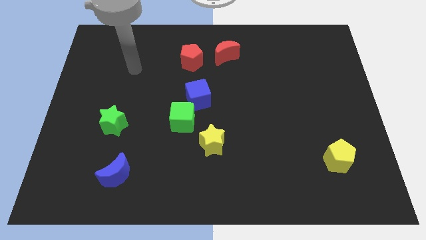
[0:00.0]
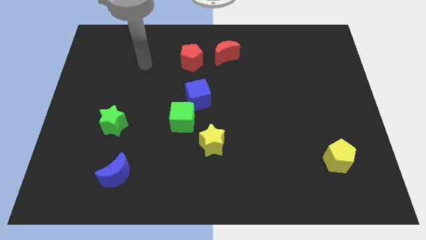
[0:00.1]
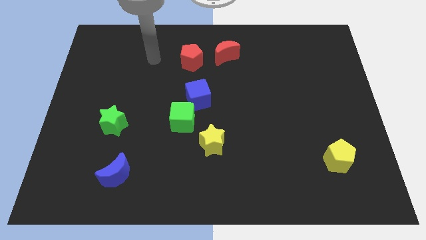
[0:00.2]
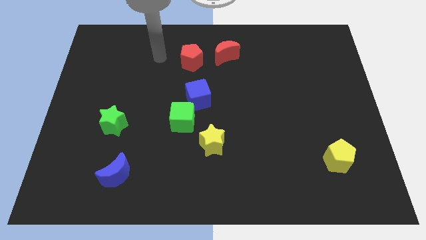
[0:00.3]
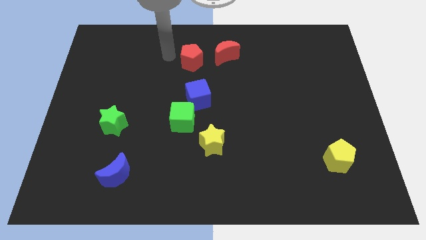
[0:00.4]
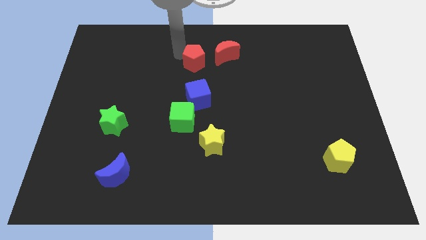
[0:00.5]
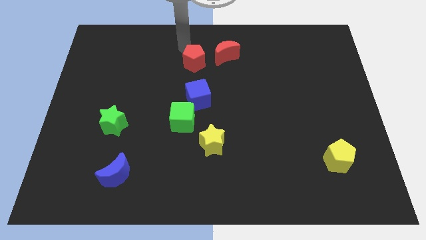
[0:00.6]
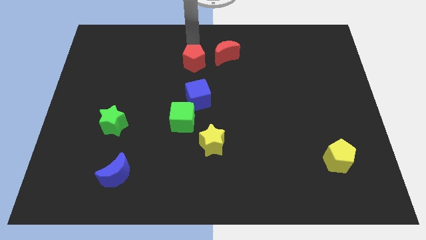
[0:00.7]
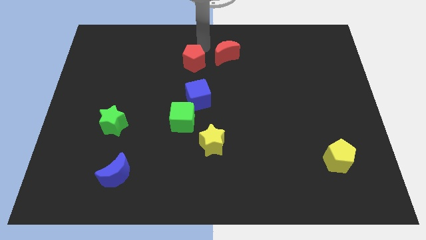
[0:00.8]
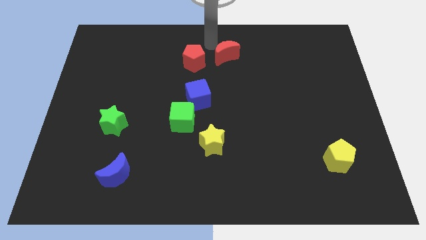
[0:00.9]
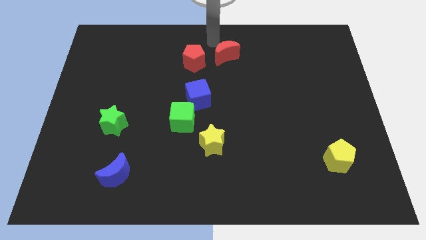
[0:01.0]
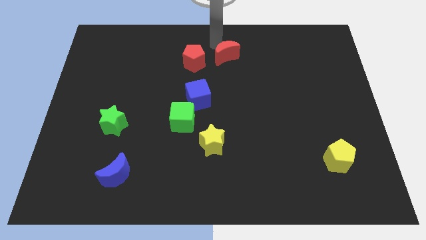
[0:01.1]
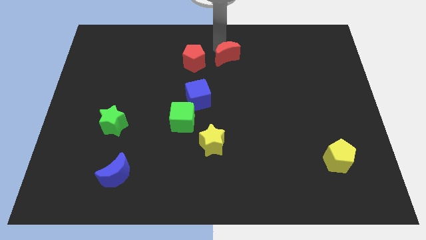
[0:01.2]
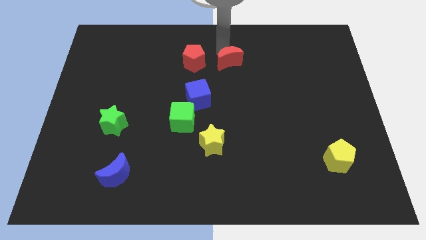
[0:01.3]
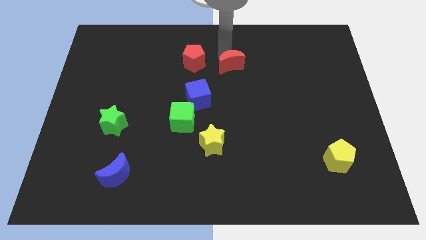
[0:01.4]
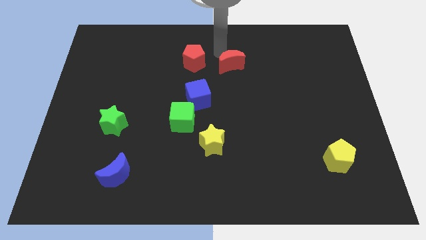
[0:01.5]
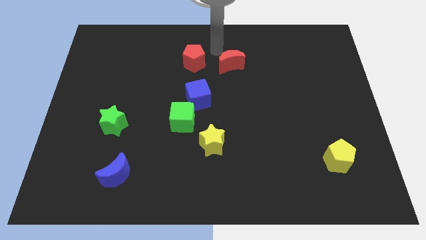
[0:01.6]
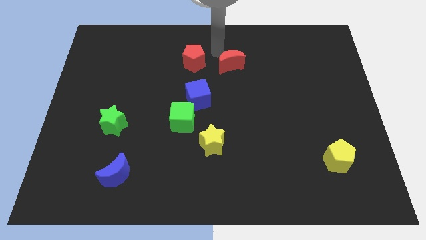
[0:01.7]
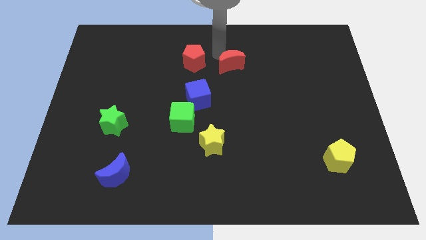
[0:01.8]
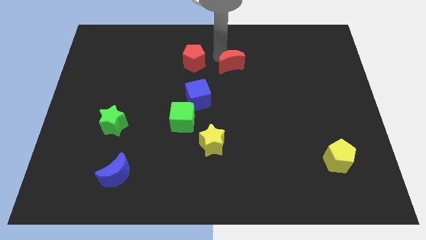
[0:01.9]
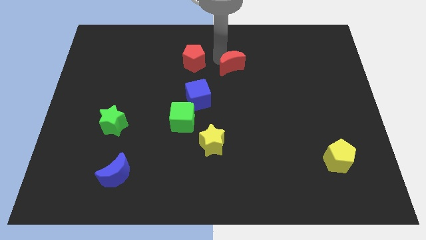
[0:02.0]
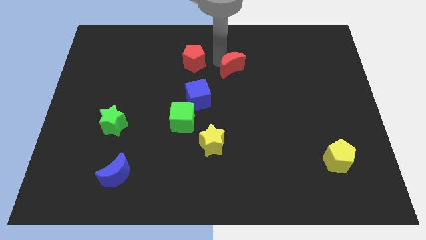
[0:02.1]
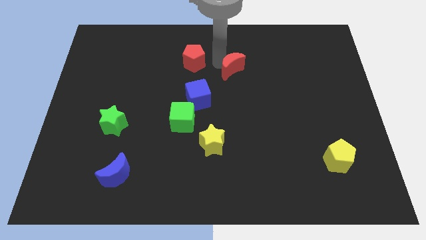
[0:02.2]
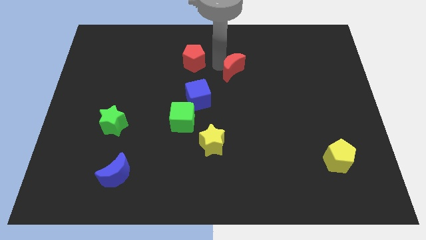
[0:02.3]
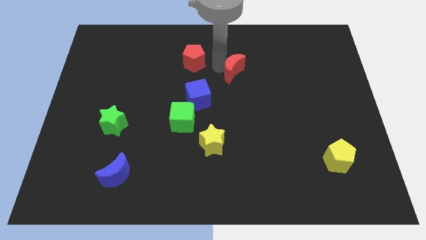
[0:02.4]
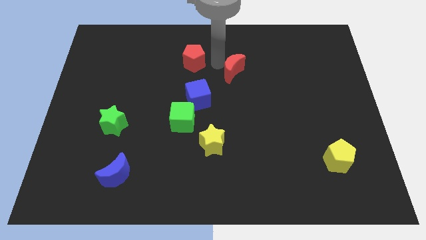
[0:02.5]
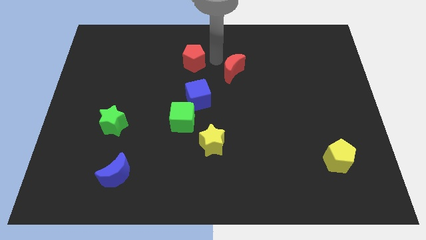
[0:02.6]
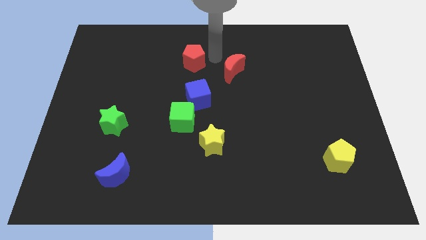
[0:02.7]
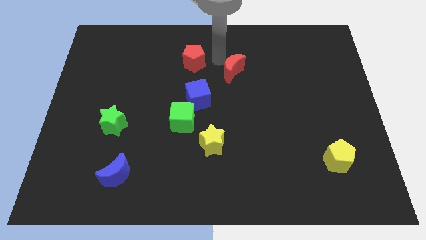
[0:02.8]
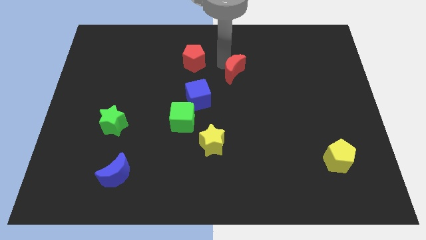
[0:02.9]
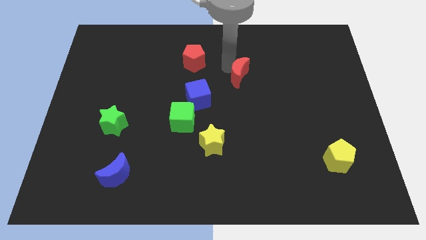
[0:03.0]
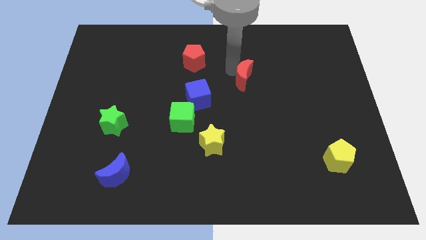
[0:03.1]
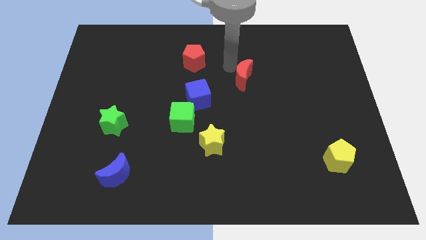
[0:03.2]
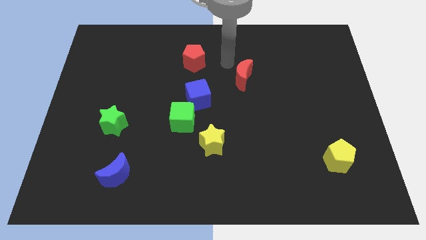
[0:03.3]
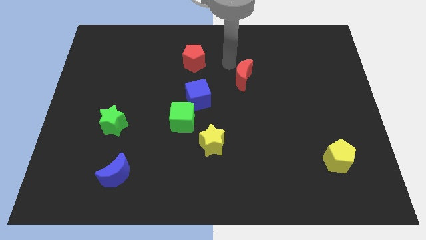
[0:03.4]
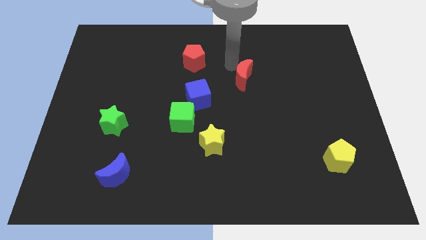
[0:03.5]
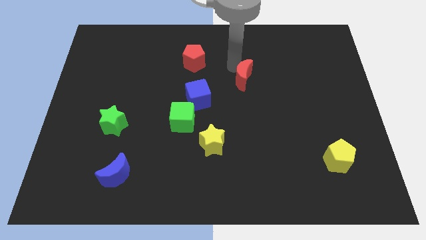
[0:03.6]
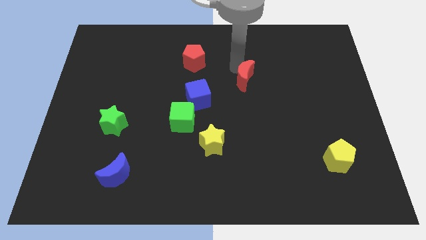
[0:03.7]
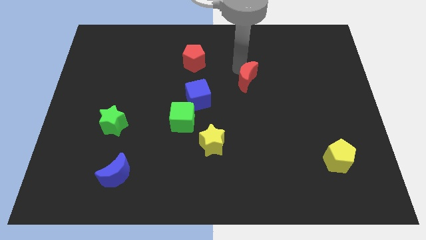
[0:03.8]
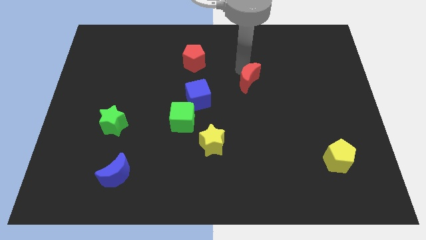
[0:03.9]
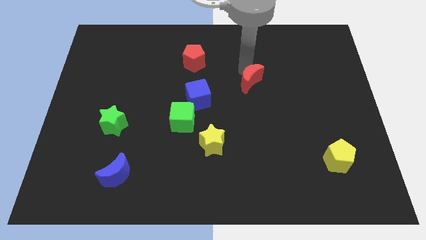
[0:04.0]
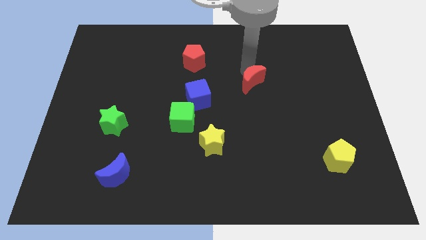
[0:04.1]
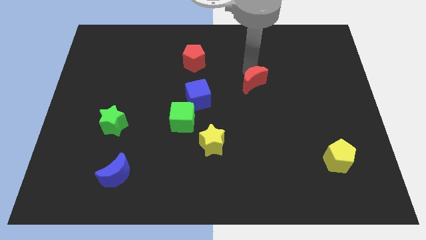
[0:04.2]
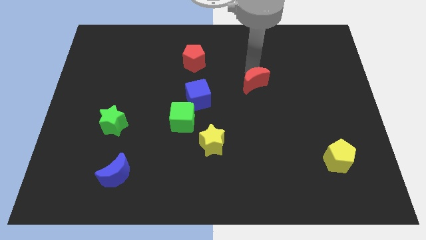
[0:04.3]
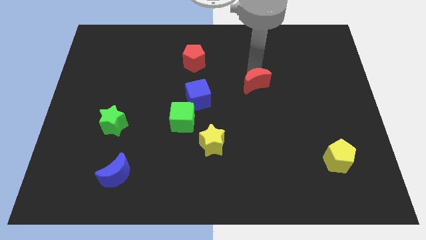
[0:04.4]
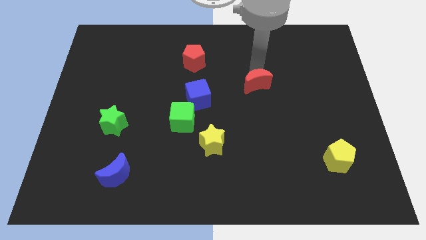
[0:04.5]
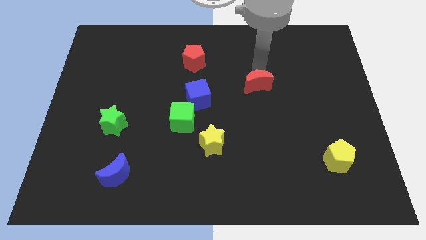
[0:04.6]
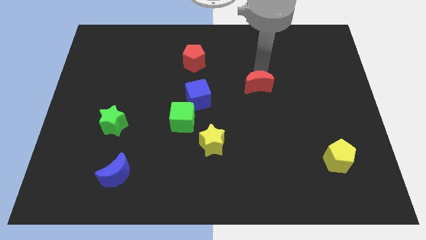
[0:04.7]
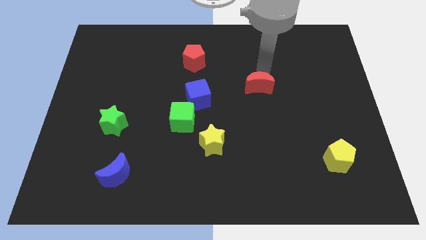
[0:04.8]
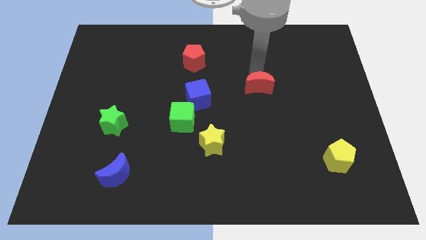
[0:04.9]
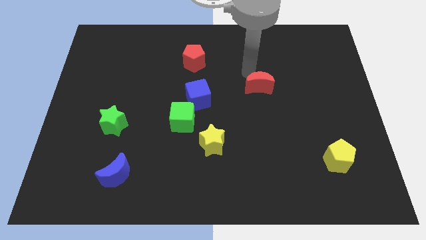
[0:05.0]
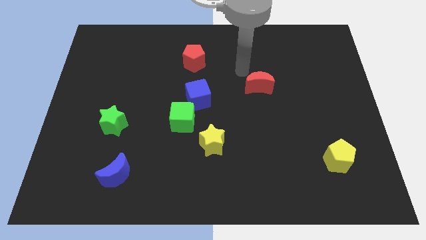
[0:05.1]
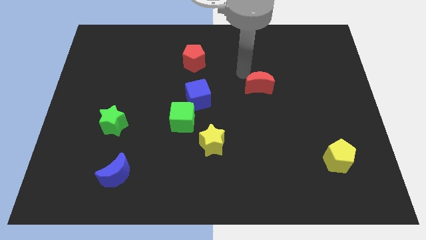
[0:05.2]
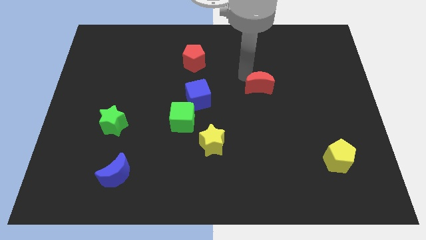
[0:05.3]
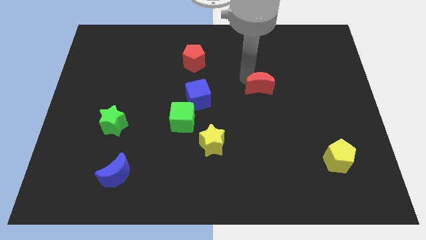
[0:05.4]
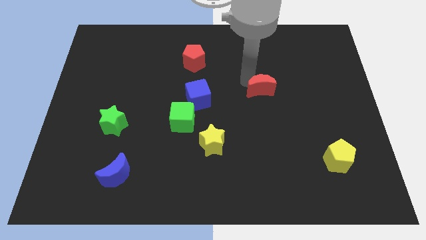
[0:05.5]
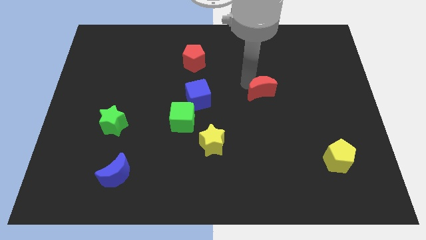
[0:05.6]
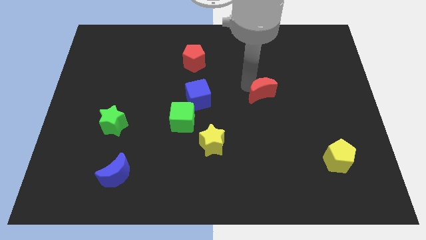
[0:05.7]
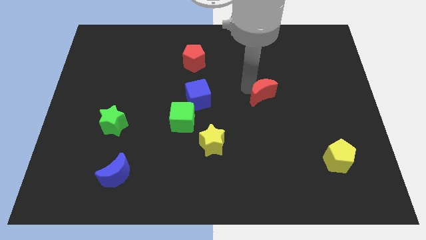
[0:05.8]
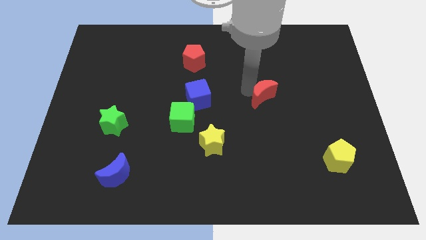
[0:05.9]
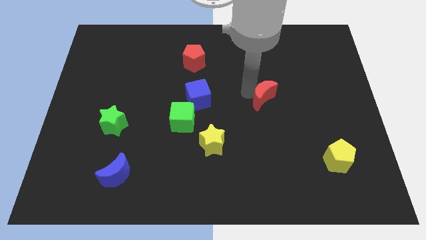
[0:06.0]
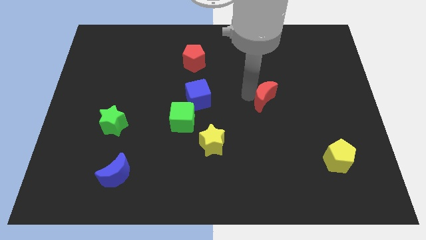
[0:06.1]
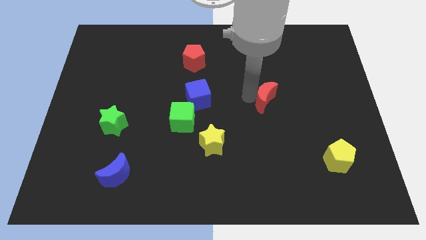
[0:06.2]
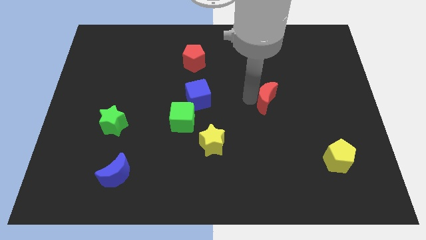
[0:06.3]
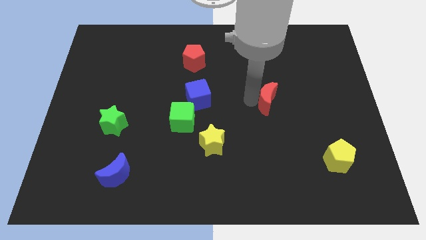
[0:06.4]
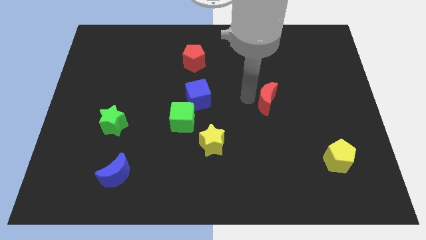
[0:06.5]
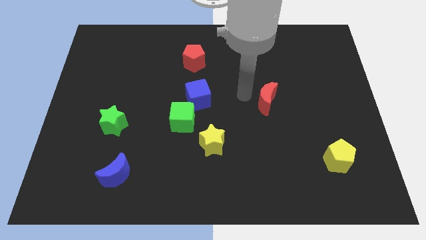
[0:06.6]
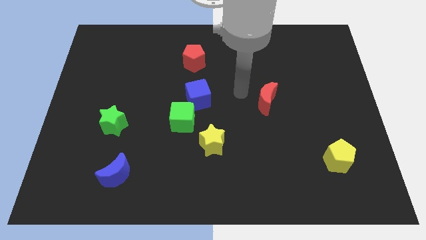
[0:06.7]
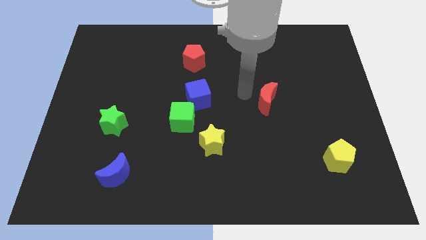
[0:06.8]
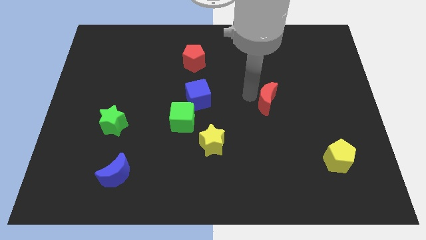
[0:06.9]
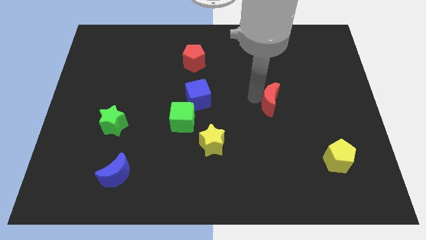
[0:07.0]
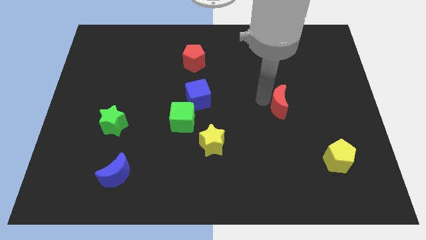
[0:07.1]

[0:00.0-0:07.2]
push the red moon diagonally downwards and to the right

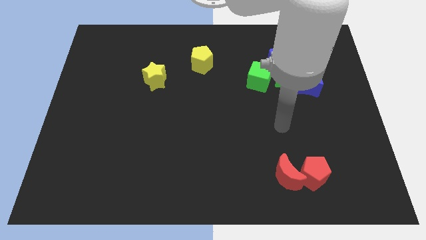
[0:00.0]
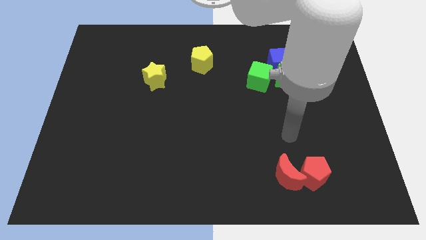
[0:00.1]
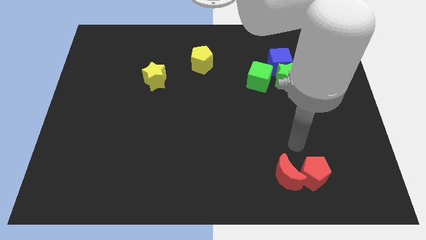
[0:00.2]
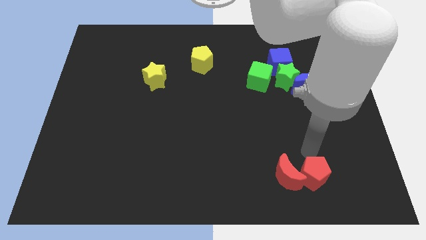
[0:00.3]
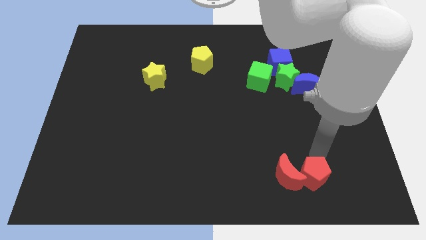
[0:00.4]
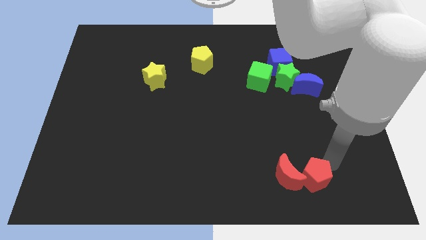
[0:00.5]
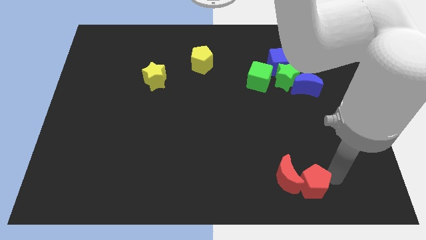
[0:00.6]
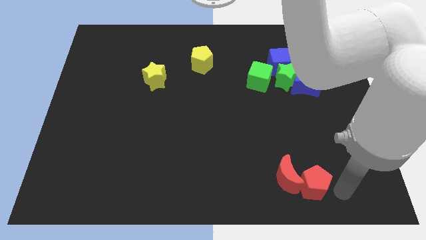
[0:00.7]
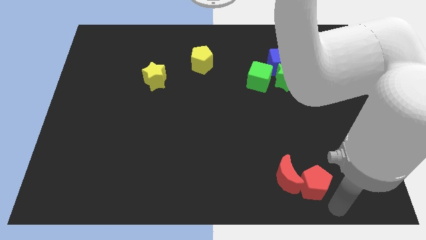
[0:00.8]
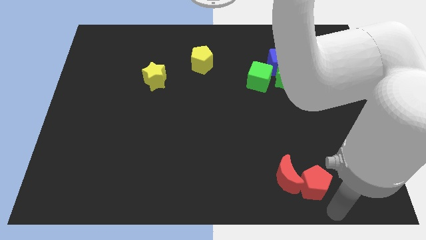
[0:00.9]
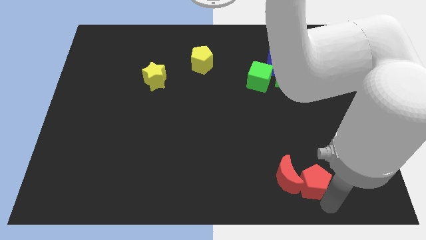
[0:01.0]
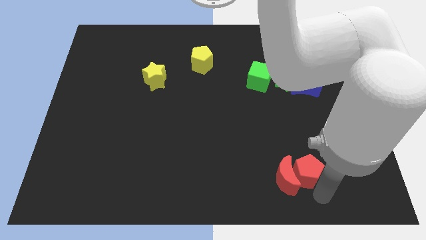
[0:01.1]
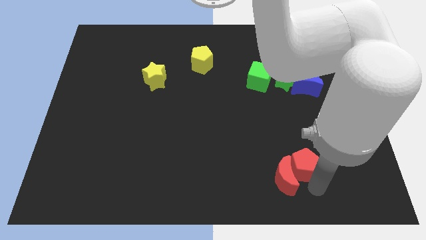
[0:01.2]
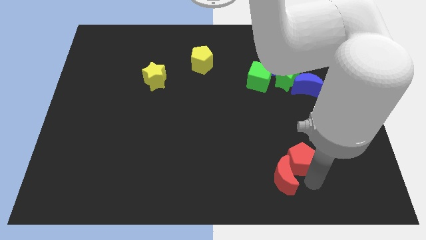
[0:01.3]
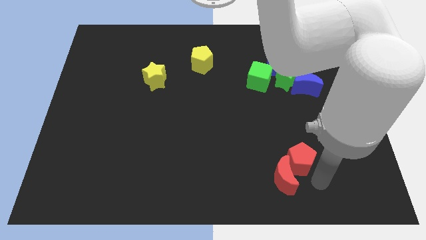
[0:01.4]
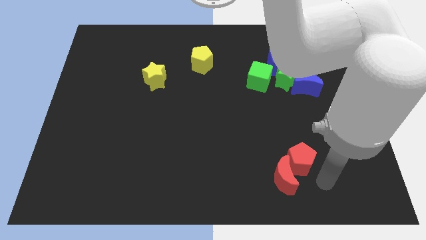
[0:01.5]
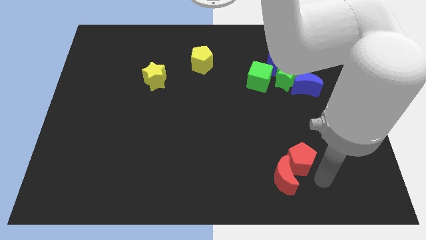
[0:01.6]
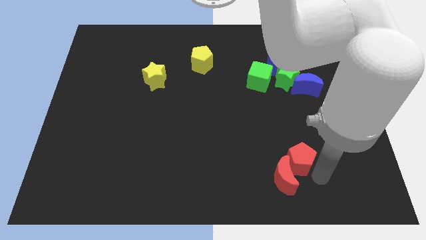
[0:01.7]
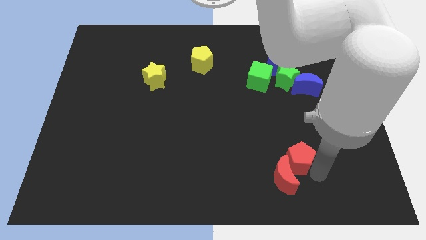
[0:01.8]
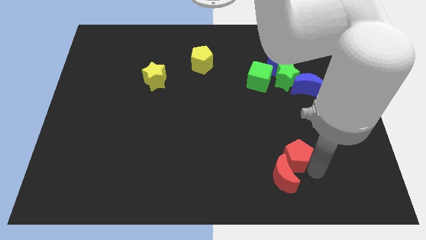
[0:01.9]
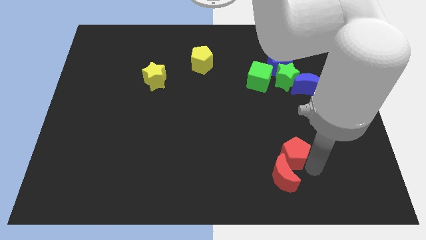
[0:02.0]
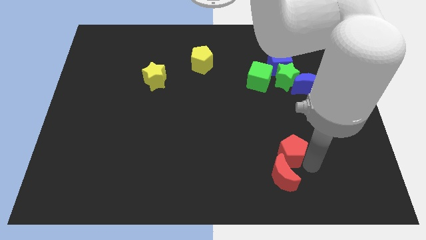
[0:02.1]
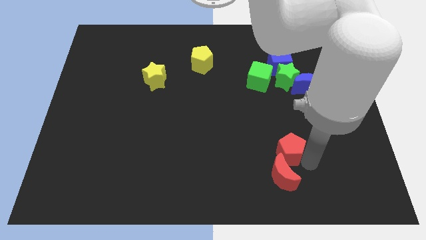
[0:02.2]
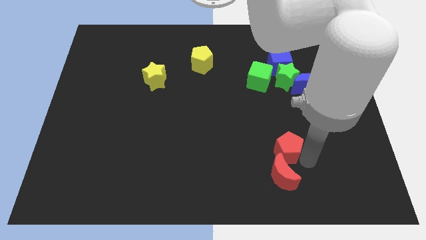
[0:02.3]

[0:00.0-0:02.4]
push the red pentagon slightly upwards and then left
